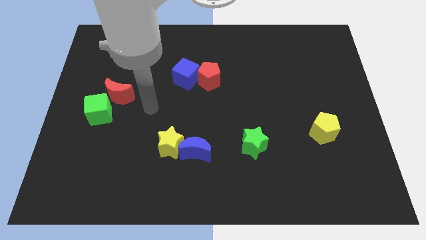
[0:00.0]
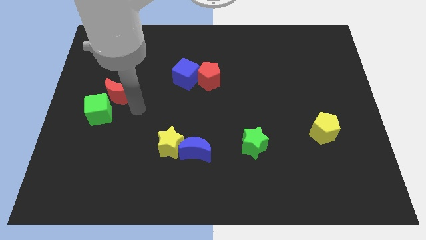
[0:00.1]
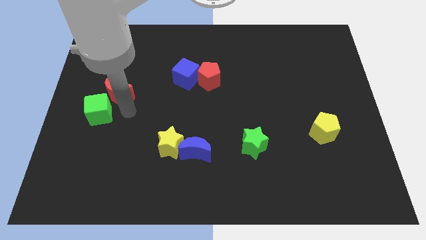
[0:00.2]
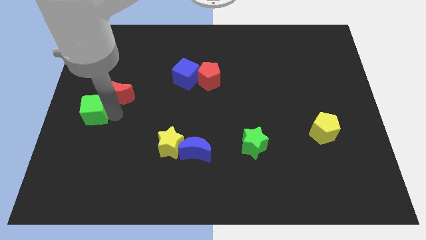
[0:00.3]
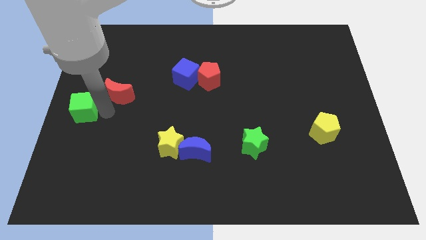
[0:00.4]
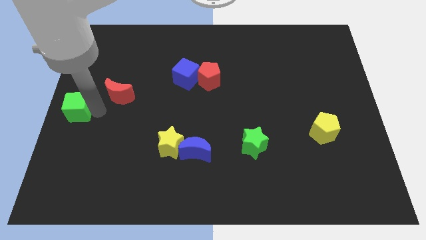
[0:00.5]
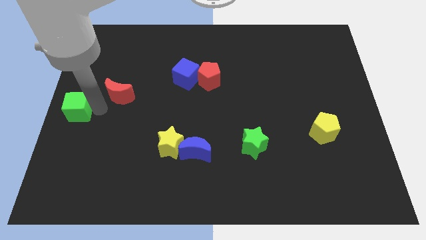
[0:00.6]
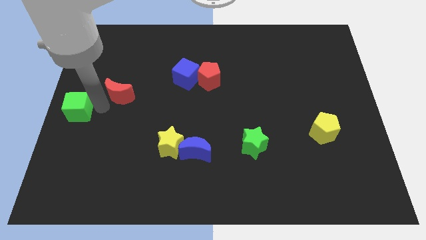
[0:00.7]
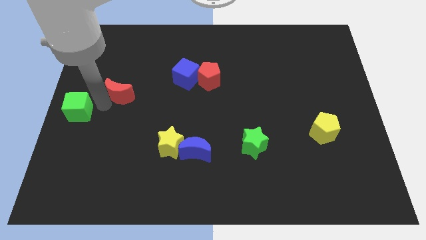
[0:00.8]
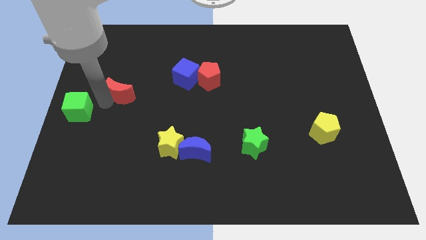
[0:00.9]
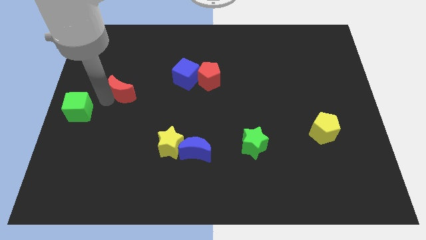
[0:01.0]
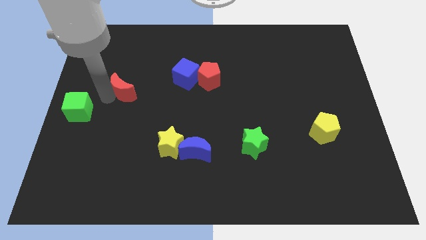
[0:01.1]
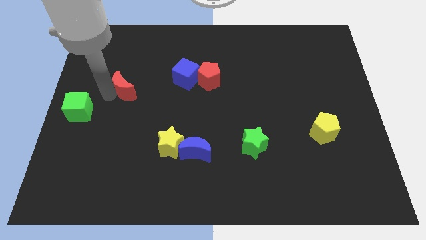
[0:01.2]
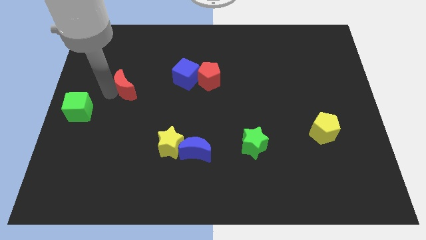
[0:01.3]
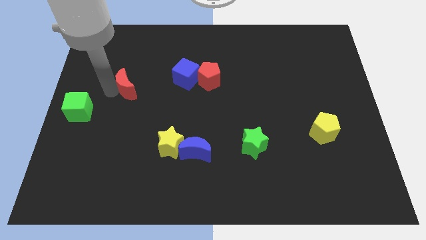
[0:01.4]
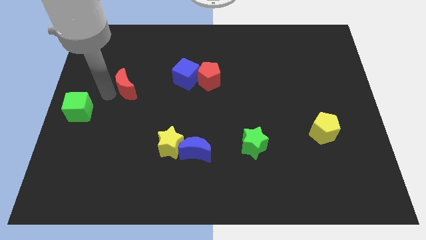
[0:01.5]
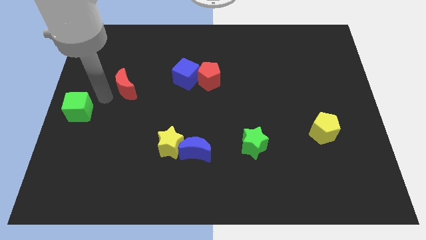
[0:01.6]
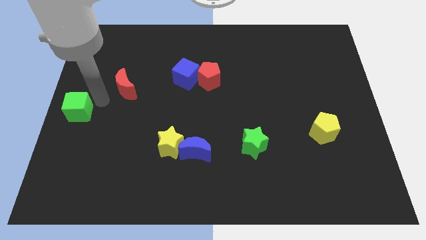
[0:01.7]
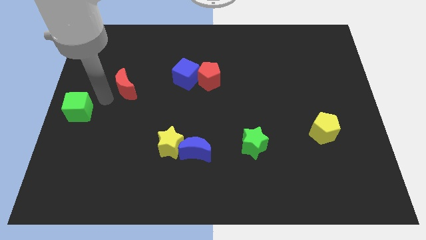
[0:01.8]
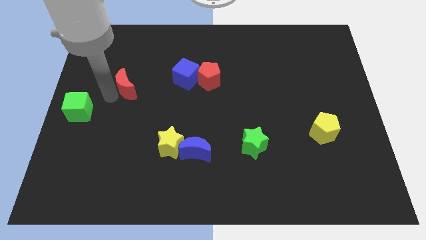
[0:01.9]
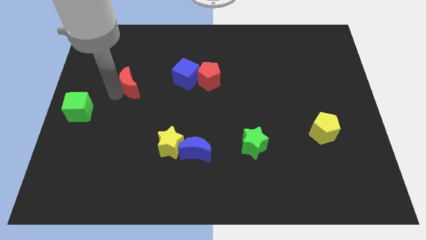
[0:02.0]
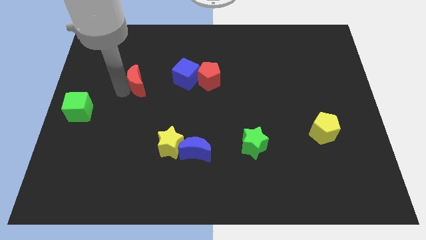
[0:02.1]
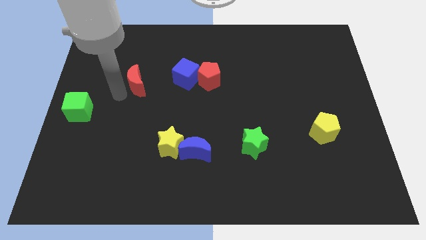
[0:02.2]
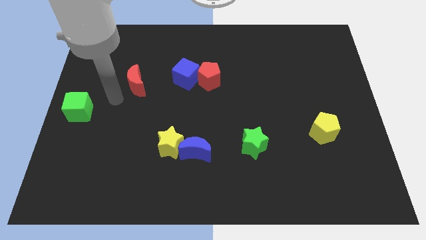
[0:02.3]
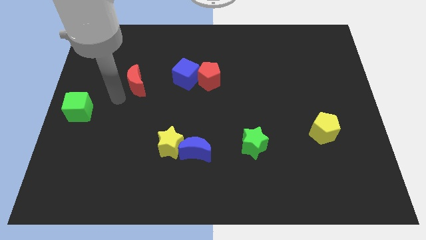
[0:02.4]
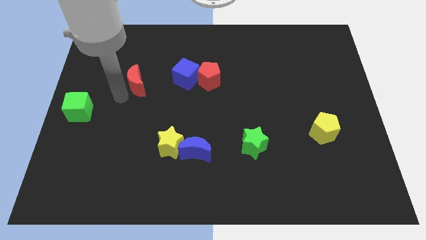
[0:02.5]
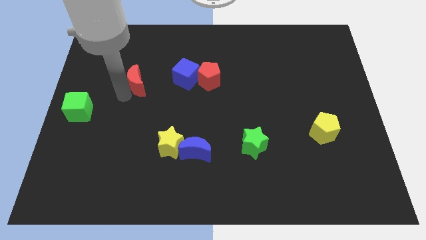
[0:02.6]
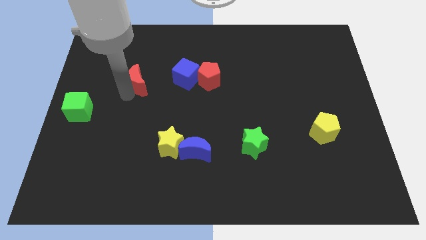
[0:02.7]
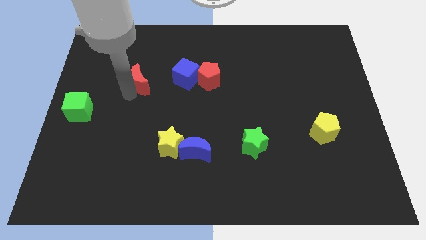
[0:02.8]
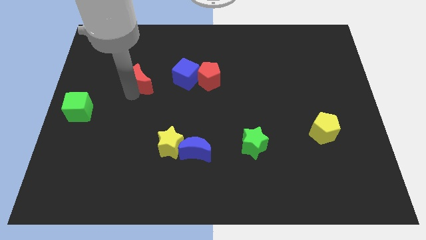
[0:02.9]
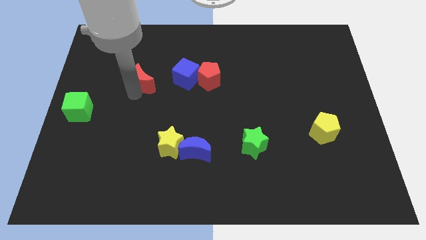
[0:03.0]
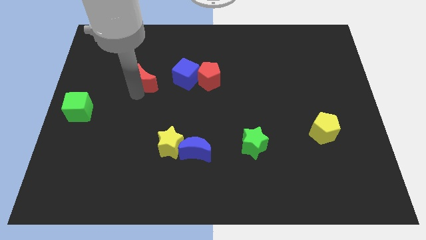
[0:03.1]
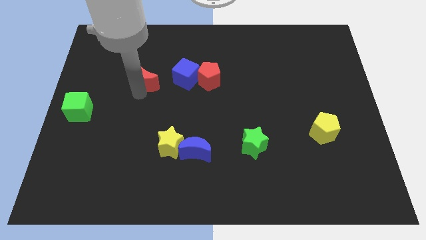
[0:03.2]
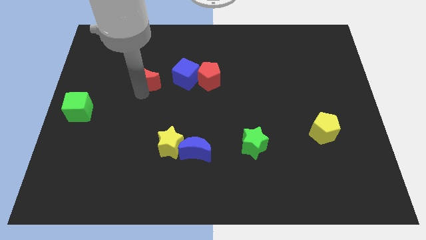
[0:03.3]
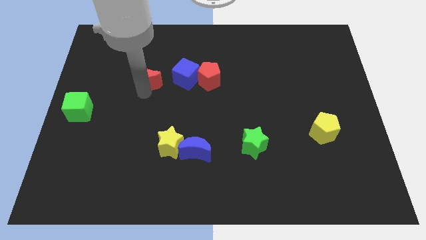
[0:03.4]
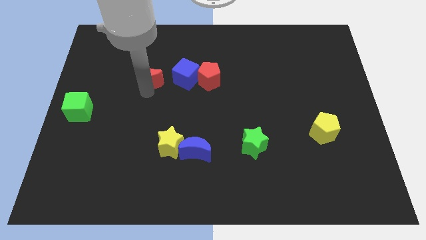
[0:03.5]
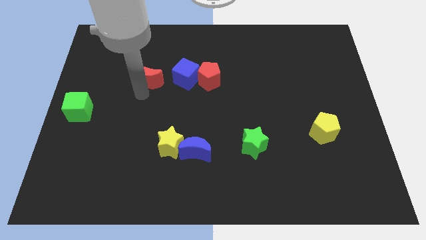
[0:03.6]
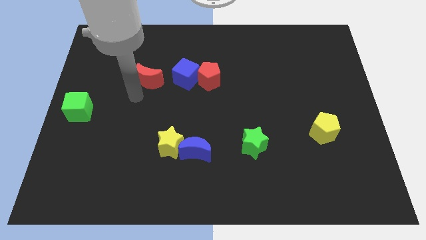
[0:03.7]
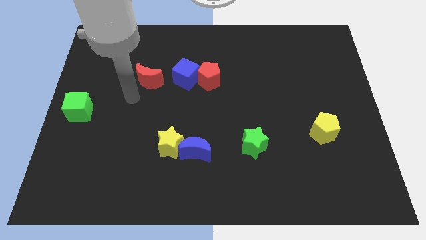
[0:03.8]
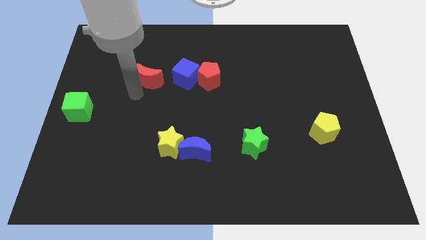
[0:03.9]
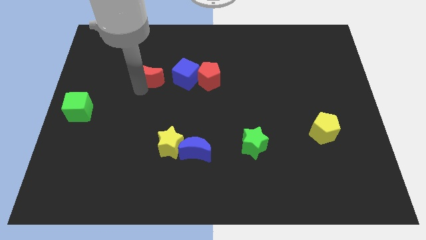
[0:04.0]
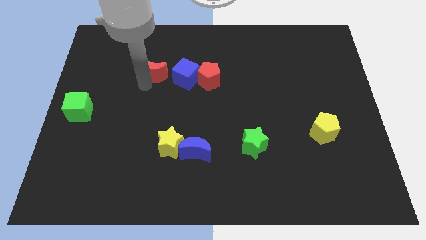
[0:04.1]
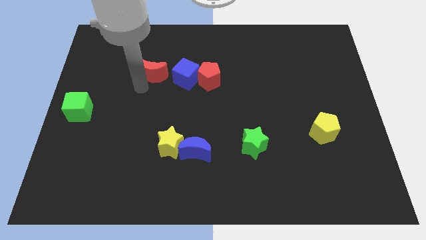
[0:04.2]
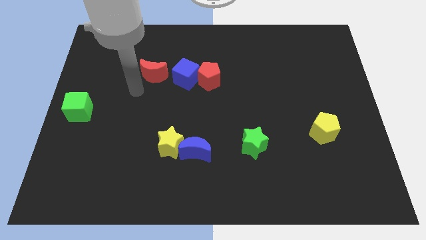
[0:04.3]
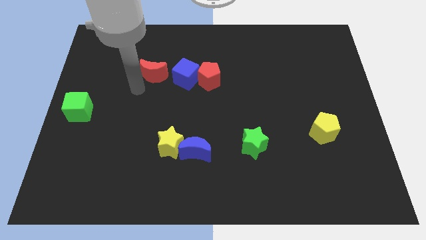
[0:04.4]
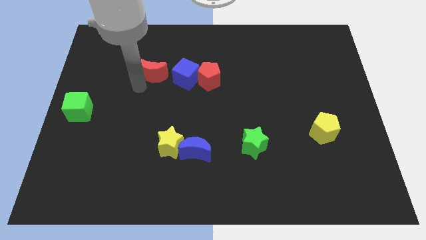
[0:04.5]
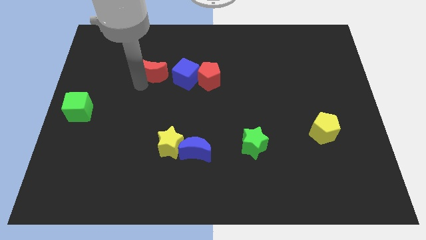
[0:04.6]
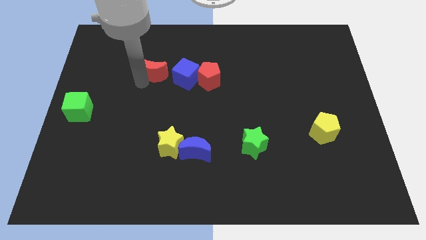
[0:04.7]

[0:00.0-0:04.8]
put the red moon to the top left side of the blue cube

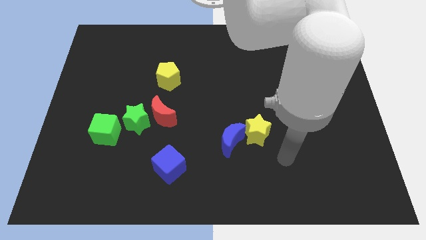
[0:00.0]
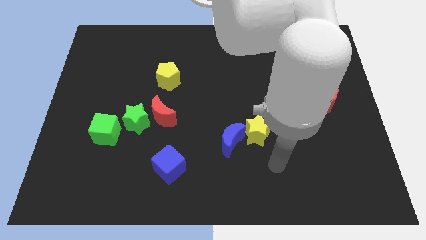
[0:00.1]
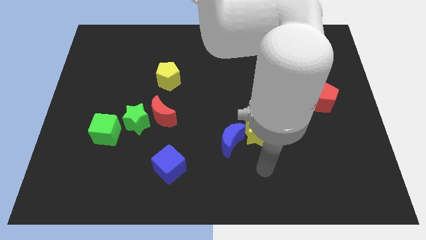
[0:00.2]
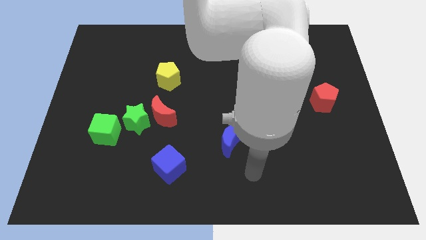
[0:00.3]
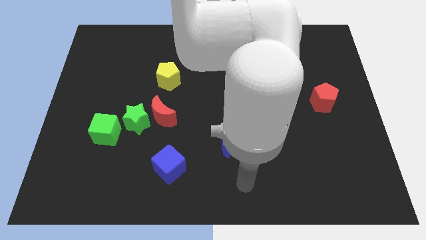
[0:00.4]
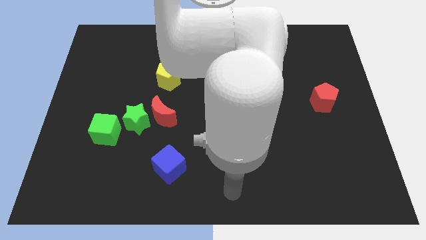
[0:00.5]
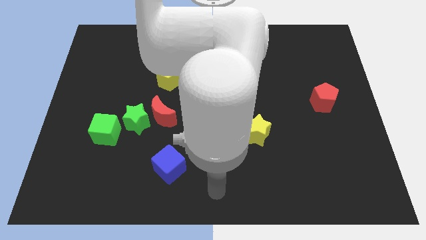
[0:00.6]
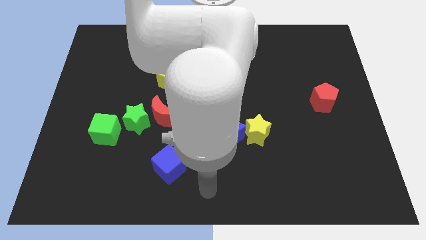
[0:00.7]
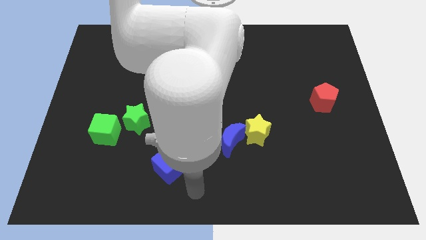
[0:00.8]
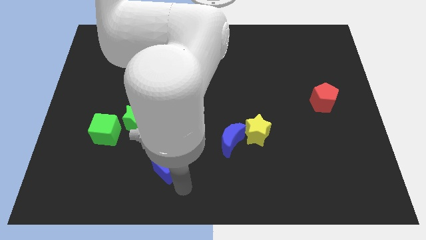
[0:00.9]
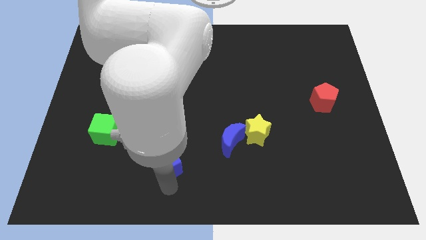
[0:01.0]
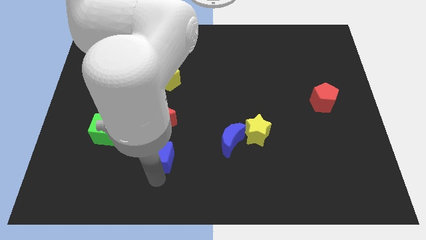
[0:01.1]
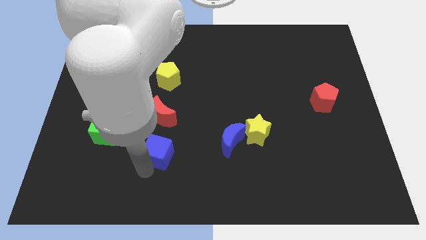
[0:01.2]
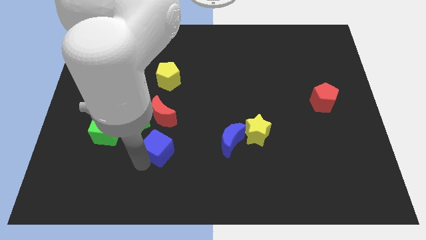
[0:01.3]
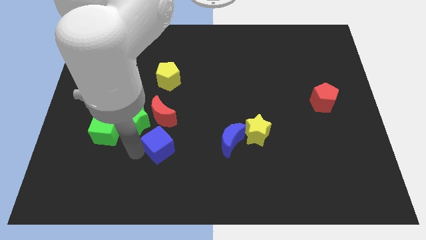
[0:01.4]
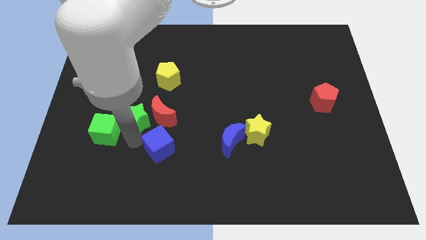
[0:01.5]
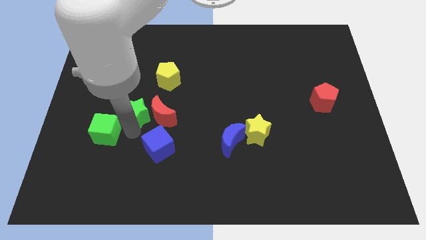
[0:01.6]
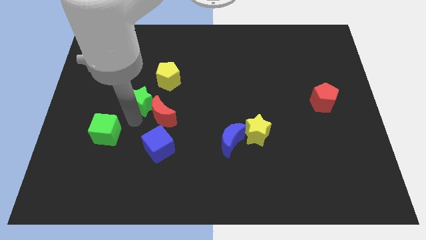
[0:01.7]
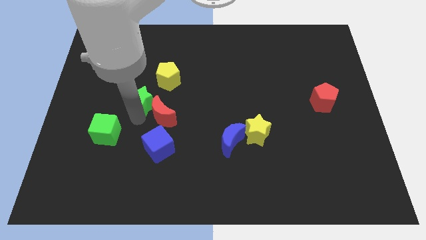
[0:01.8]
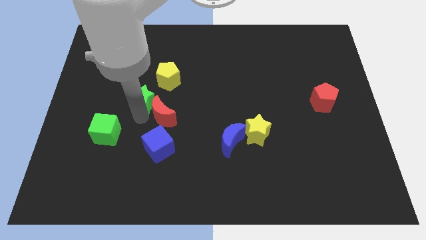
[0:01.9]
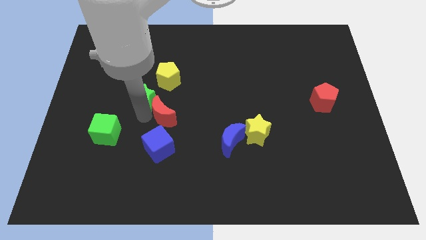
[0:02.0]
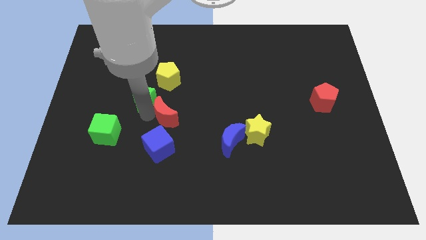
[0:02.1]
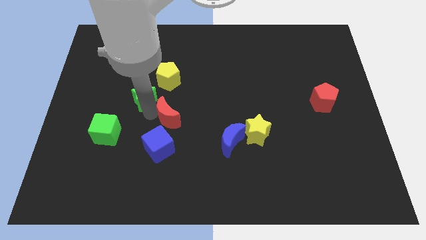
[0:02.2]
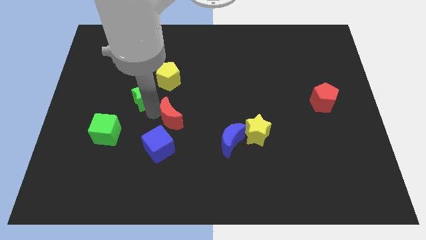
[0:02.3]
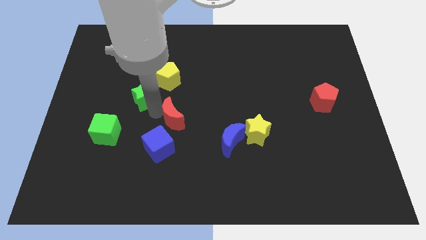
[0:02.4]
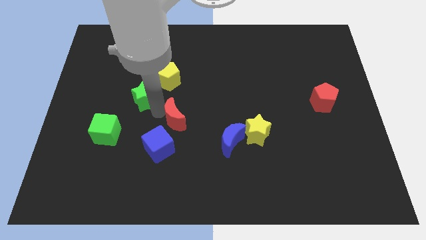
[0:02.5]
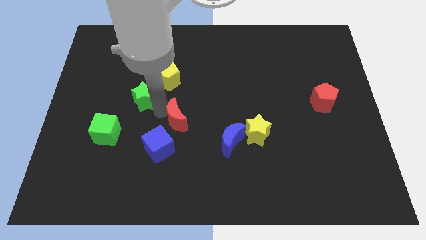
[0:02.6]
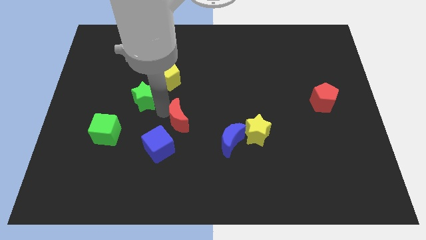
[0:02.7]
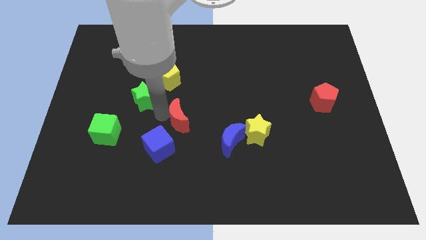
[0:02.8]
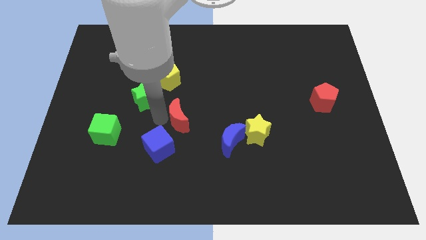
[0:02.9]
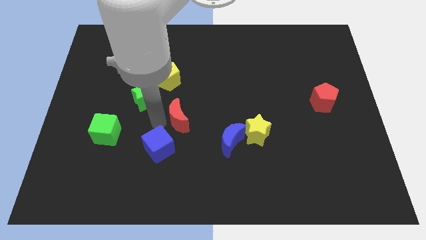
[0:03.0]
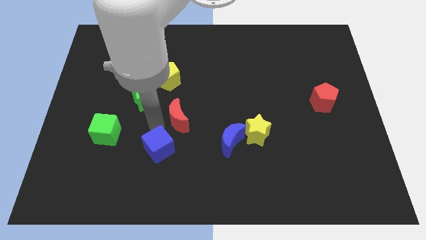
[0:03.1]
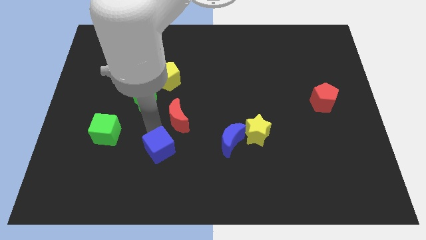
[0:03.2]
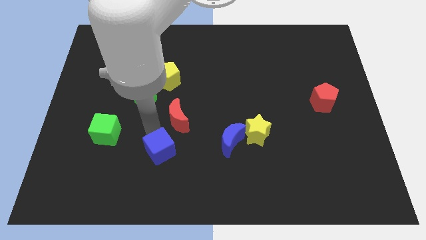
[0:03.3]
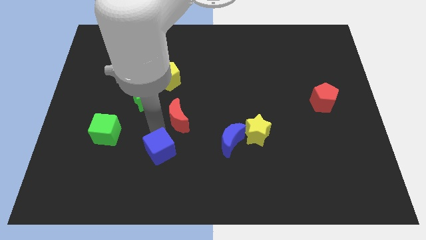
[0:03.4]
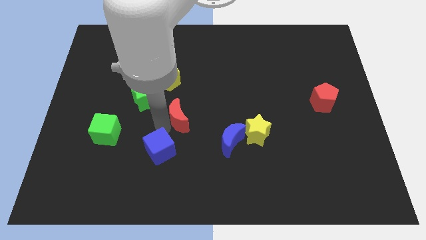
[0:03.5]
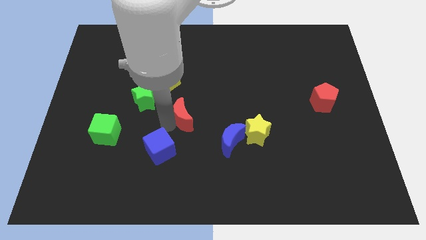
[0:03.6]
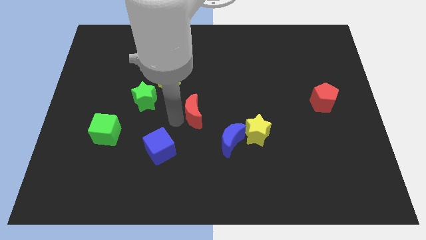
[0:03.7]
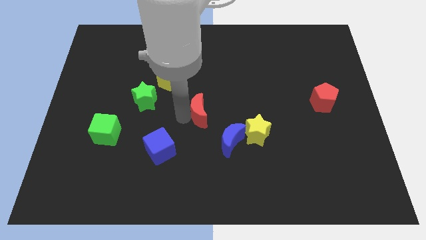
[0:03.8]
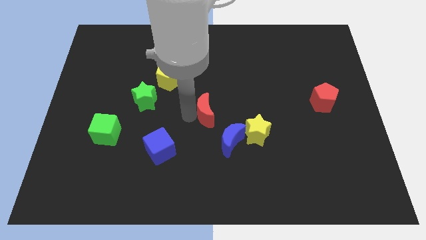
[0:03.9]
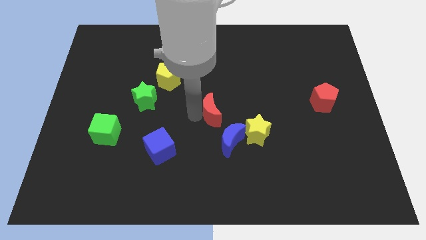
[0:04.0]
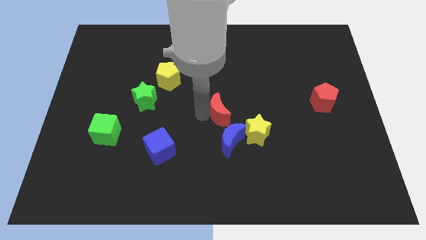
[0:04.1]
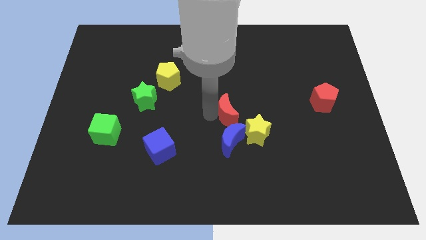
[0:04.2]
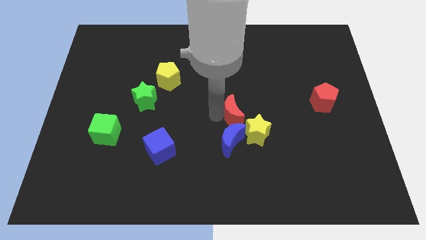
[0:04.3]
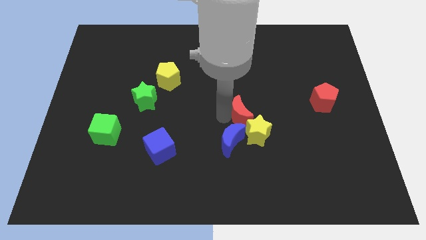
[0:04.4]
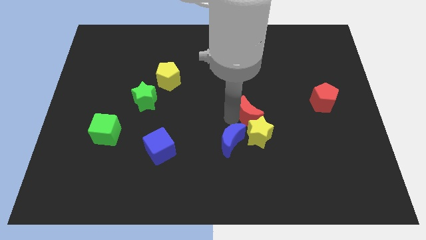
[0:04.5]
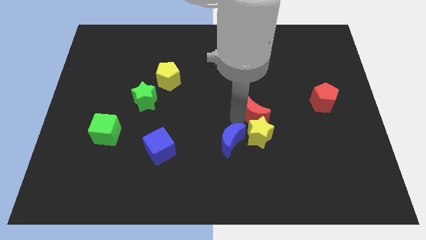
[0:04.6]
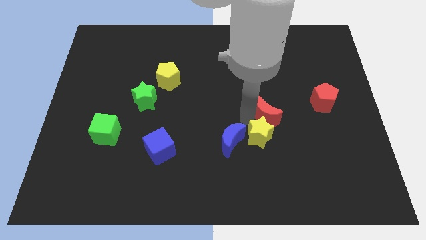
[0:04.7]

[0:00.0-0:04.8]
push the red moon left of the red pentagon
